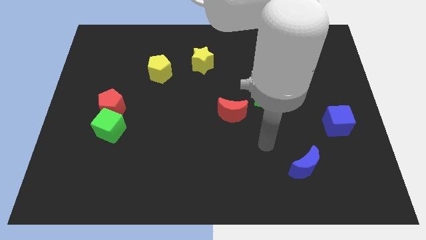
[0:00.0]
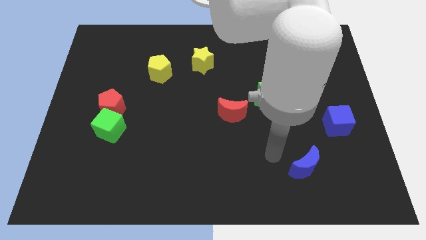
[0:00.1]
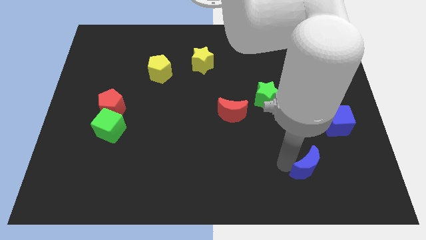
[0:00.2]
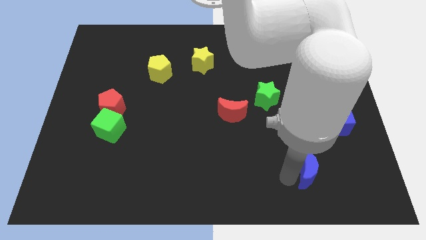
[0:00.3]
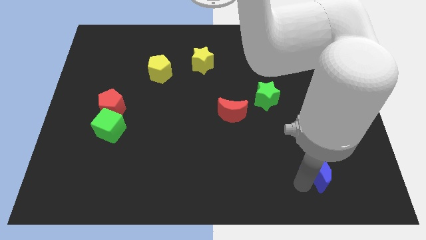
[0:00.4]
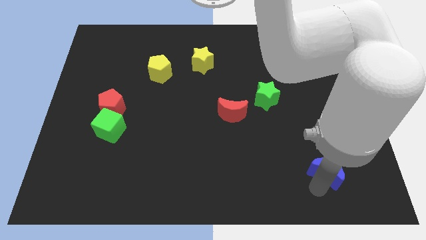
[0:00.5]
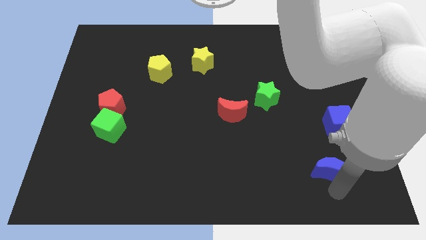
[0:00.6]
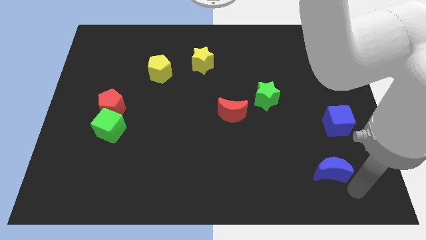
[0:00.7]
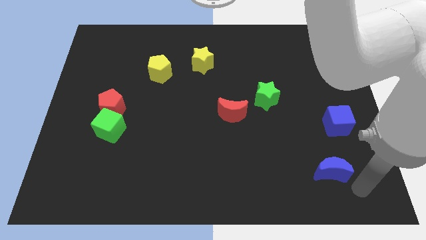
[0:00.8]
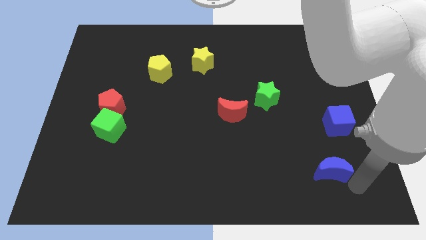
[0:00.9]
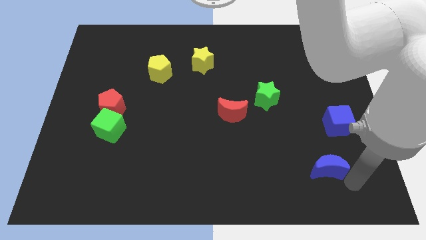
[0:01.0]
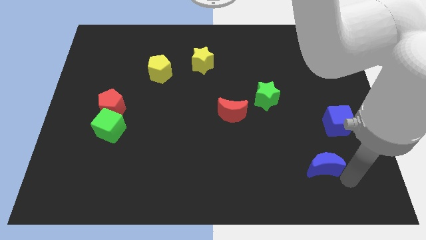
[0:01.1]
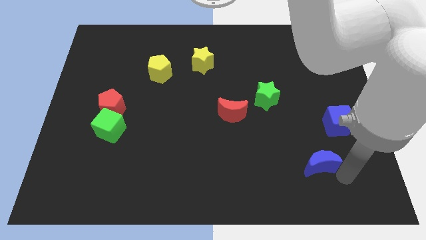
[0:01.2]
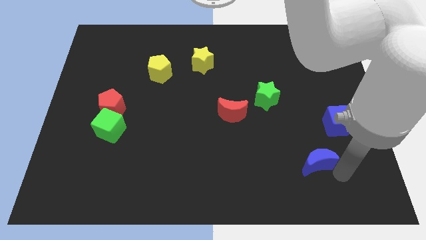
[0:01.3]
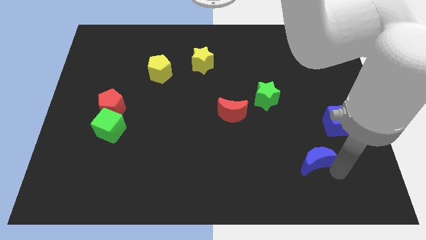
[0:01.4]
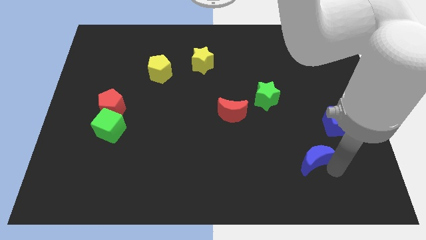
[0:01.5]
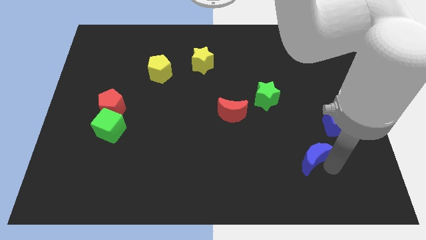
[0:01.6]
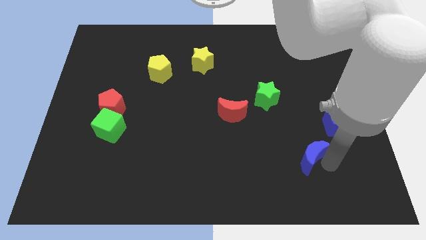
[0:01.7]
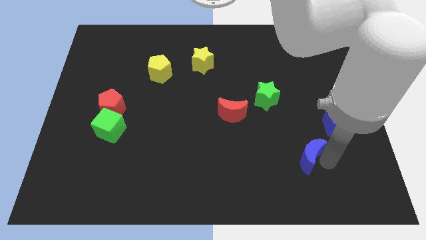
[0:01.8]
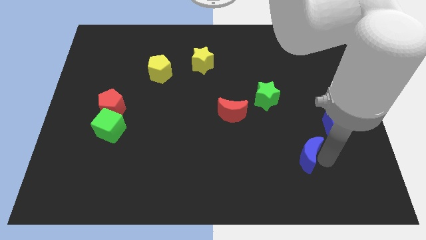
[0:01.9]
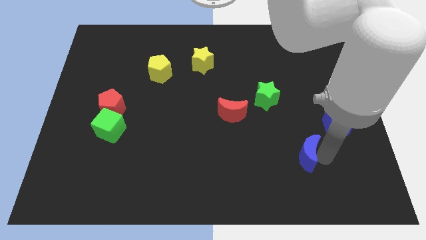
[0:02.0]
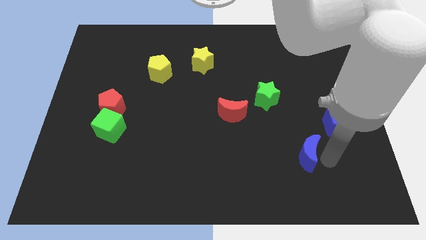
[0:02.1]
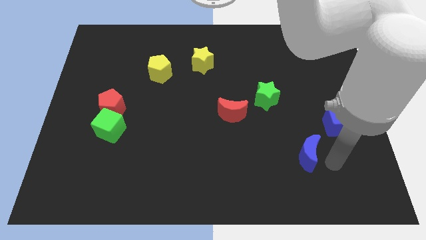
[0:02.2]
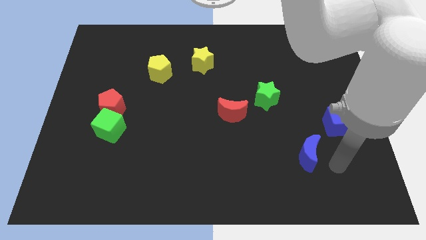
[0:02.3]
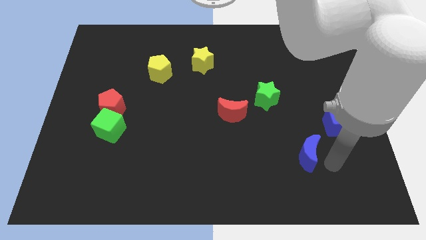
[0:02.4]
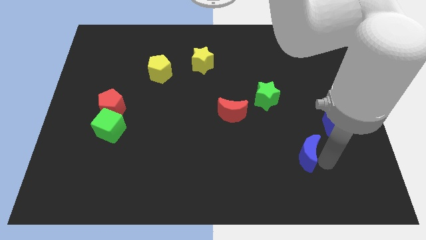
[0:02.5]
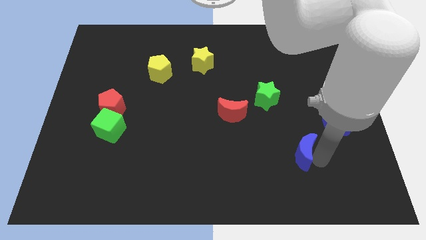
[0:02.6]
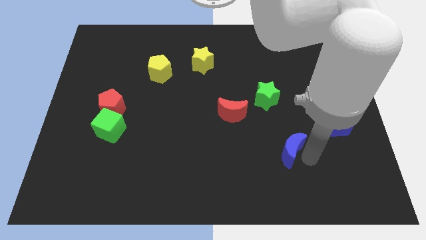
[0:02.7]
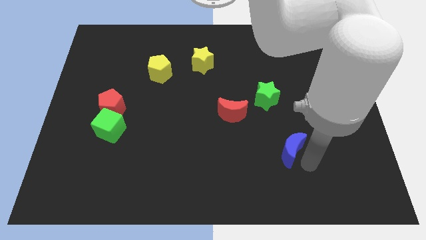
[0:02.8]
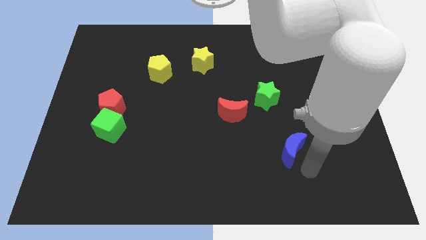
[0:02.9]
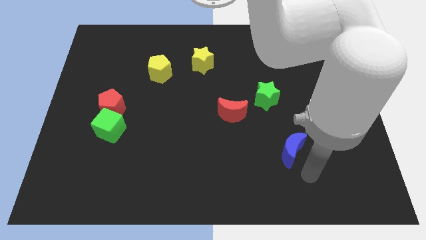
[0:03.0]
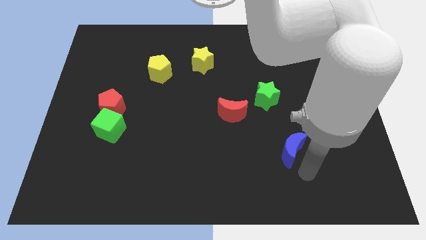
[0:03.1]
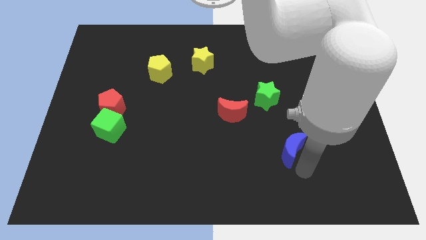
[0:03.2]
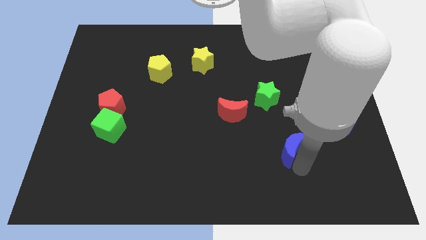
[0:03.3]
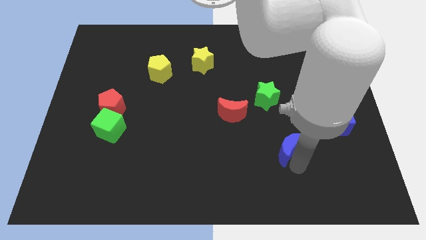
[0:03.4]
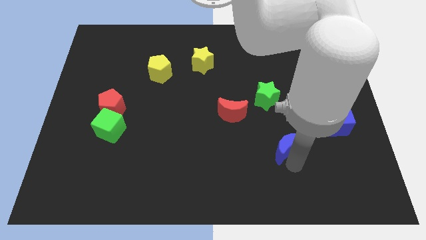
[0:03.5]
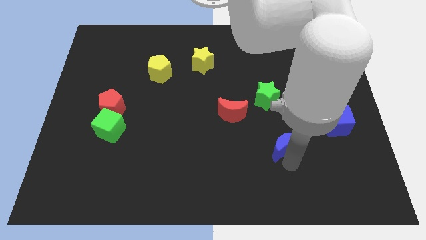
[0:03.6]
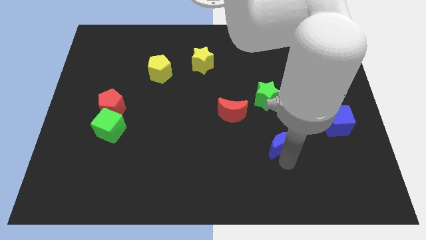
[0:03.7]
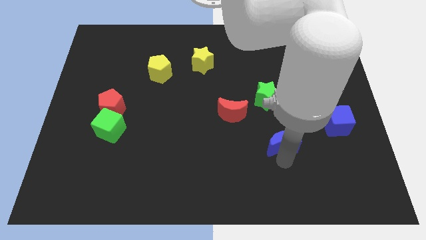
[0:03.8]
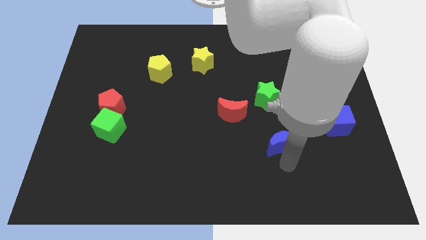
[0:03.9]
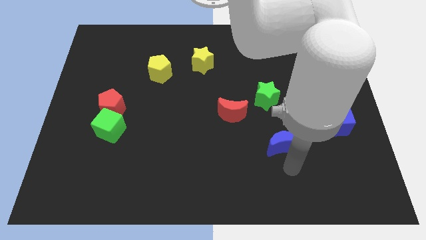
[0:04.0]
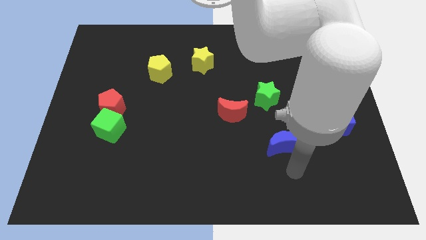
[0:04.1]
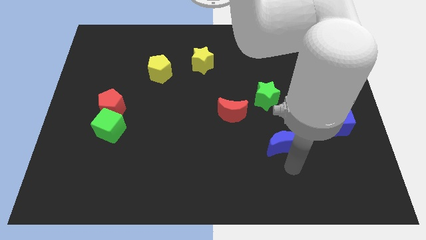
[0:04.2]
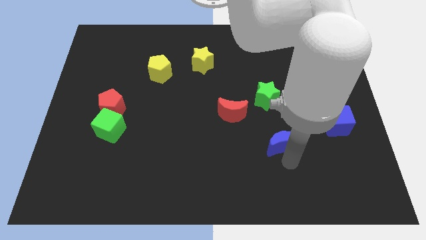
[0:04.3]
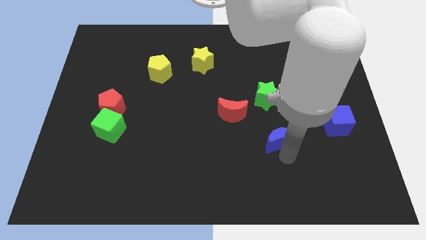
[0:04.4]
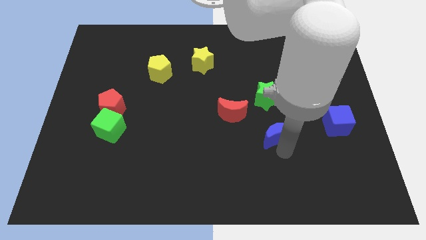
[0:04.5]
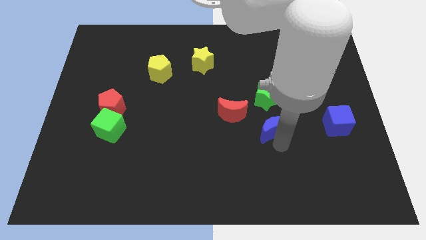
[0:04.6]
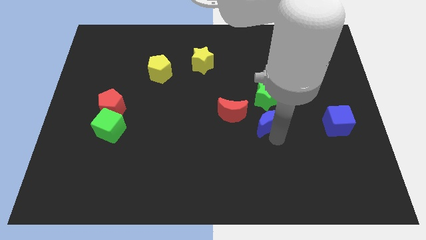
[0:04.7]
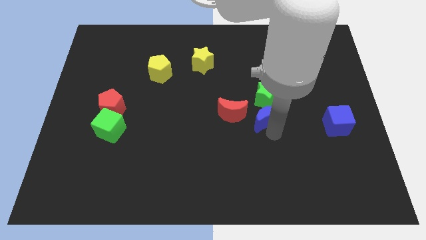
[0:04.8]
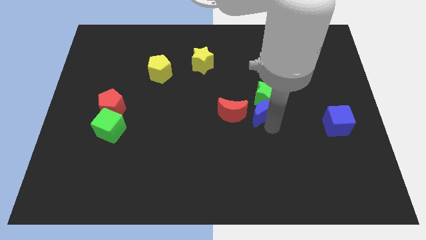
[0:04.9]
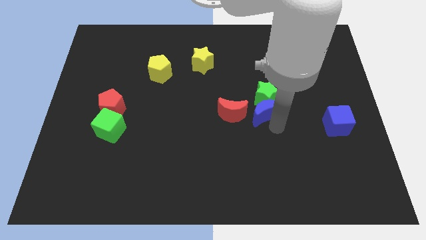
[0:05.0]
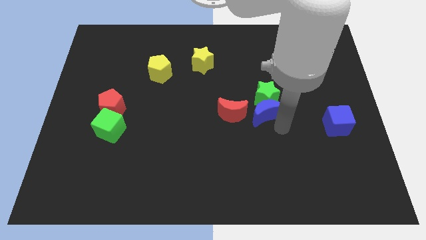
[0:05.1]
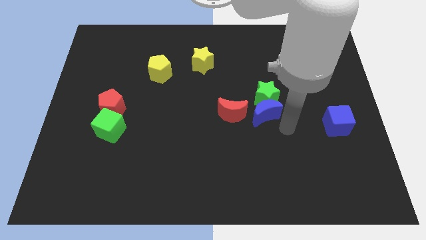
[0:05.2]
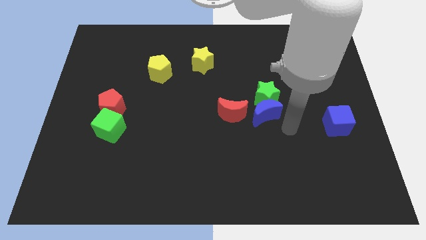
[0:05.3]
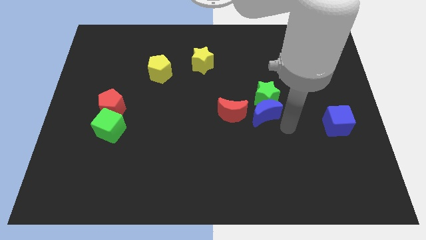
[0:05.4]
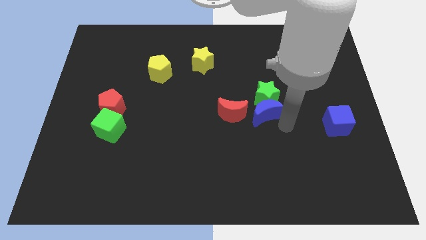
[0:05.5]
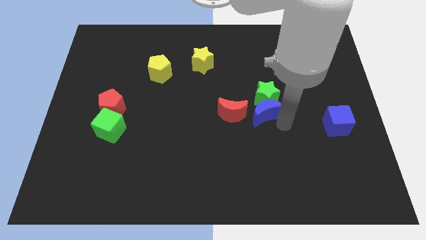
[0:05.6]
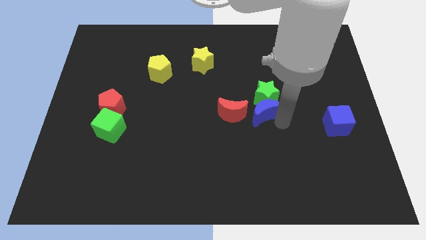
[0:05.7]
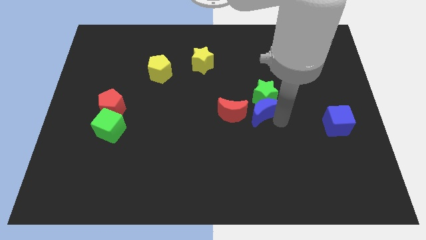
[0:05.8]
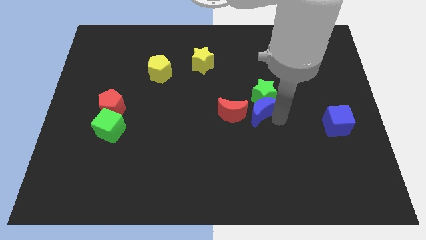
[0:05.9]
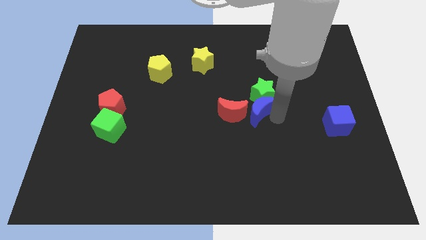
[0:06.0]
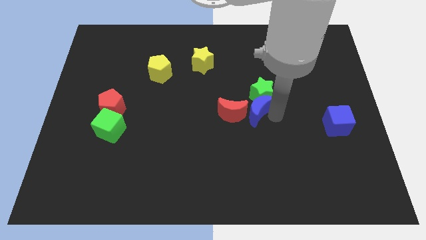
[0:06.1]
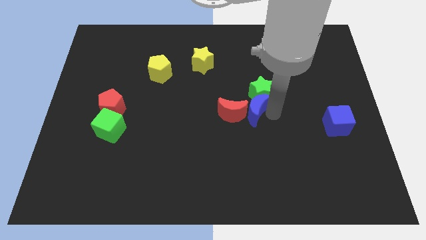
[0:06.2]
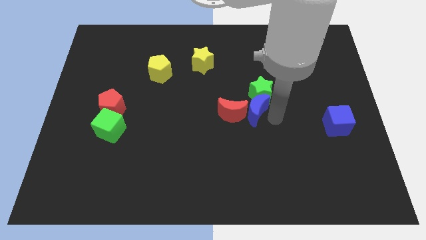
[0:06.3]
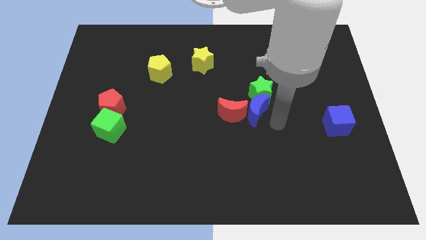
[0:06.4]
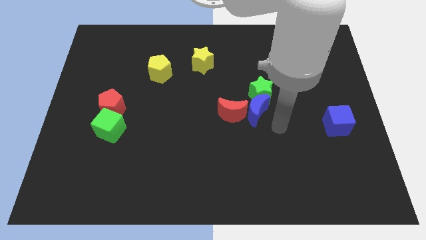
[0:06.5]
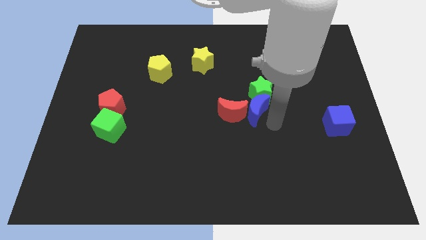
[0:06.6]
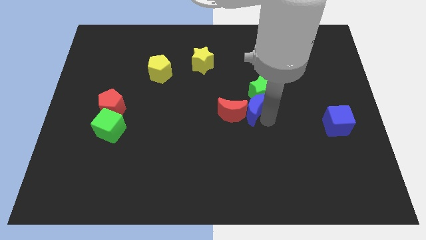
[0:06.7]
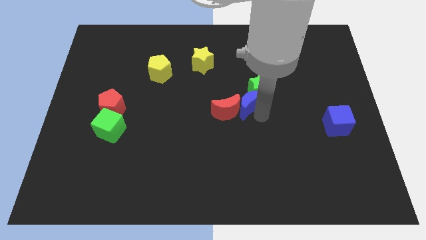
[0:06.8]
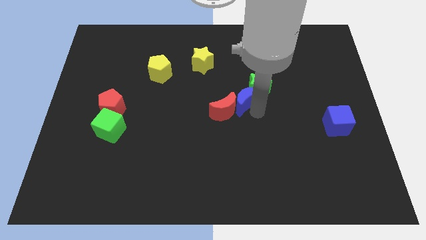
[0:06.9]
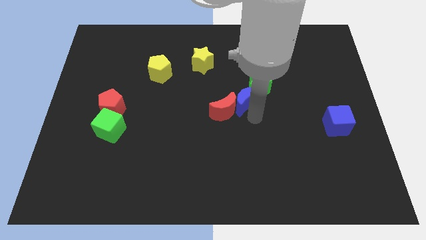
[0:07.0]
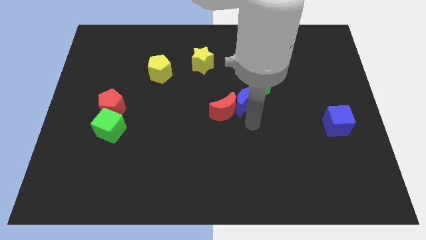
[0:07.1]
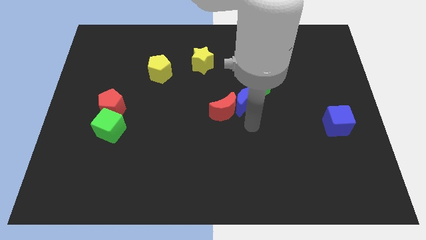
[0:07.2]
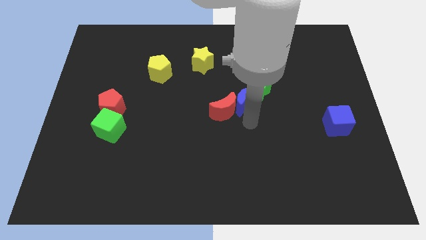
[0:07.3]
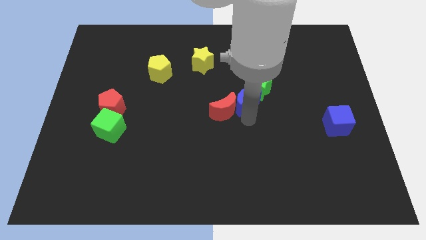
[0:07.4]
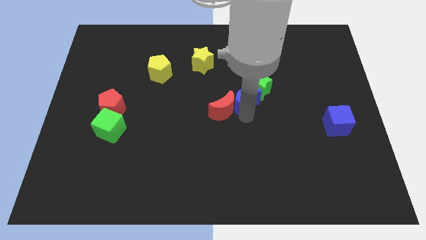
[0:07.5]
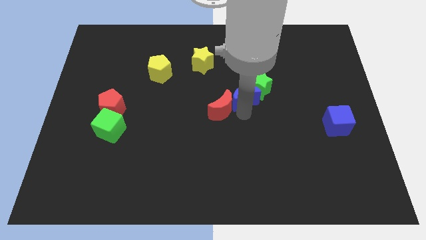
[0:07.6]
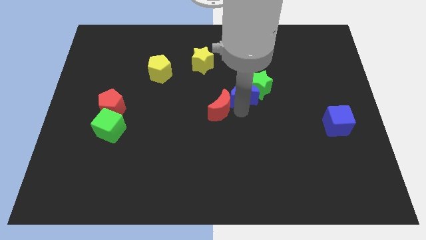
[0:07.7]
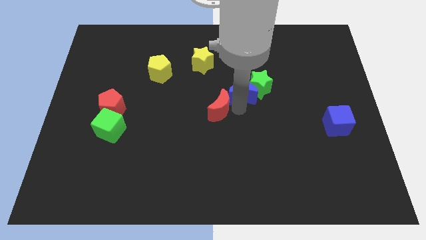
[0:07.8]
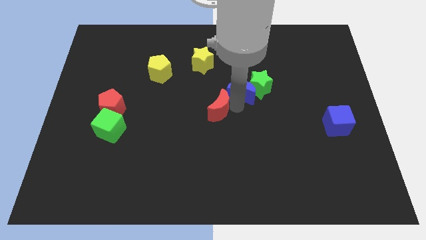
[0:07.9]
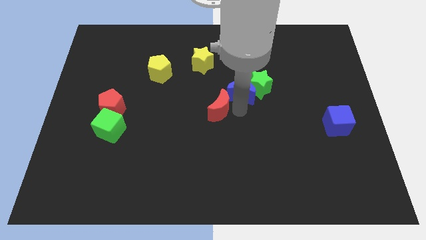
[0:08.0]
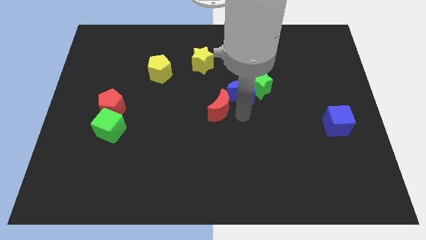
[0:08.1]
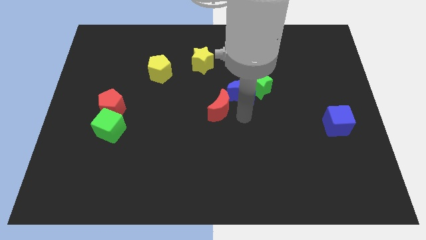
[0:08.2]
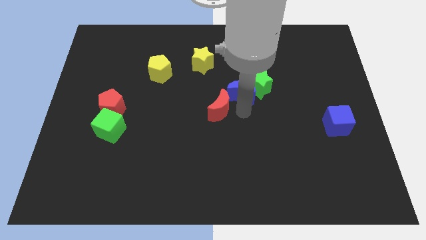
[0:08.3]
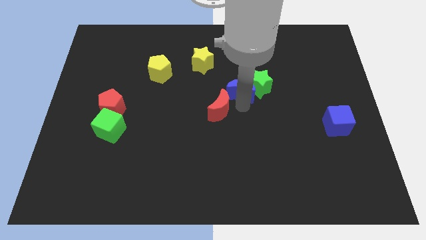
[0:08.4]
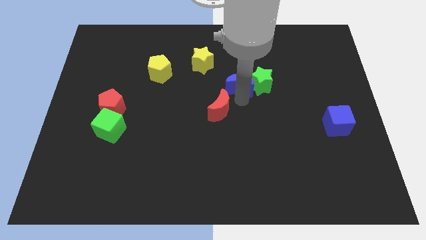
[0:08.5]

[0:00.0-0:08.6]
move the blue moon to the top left of the green star
